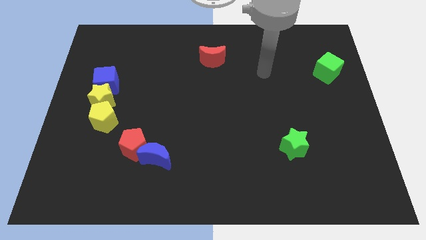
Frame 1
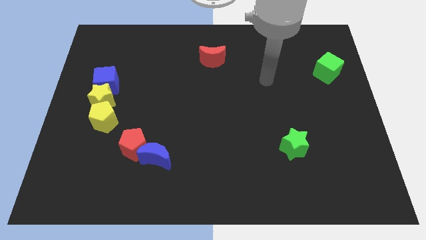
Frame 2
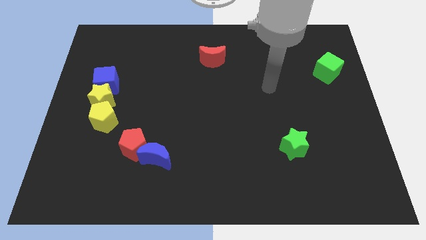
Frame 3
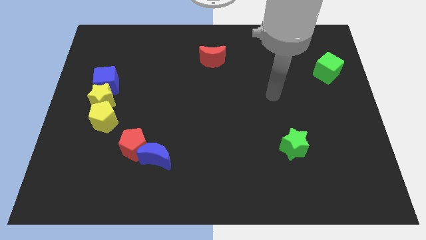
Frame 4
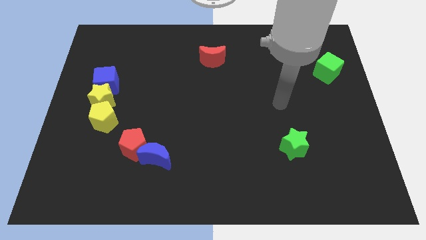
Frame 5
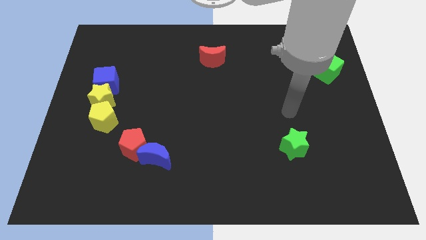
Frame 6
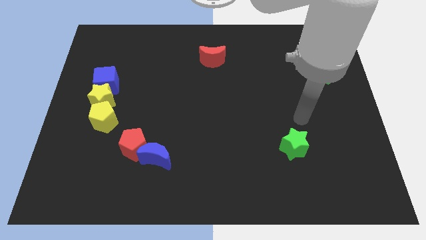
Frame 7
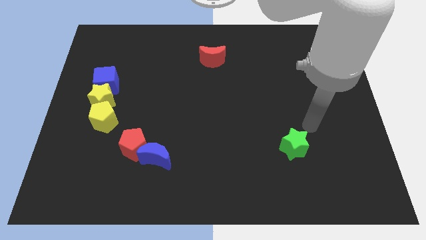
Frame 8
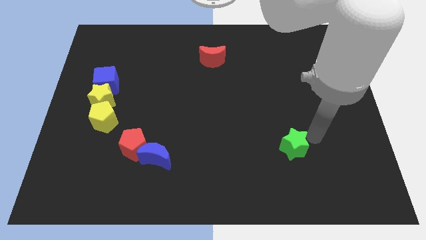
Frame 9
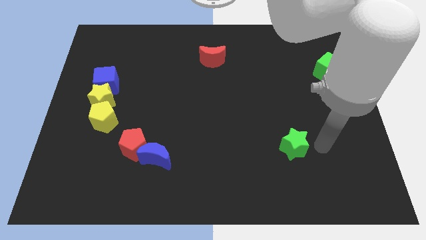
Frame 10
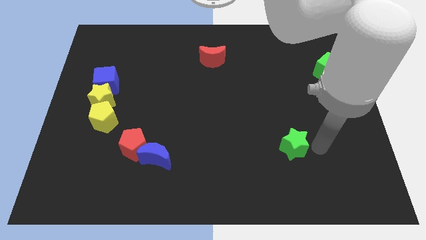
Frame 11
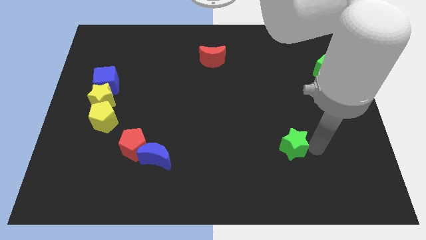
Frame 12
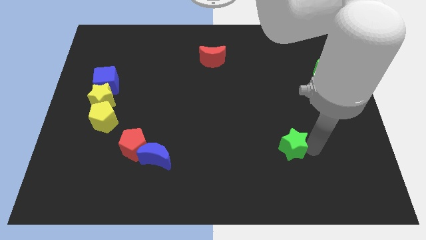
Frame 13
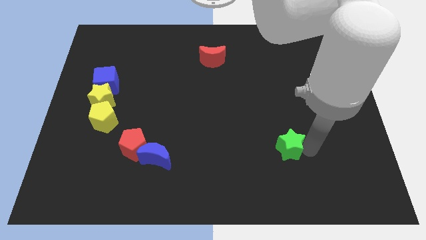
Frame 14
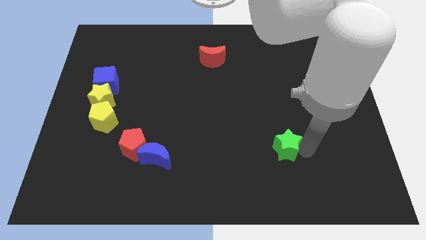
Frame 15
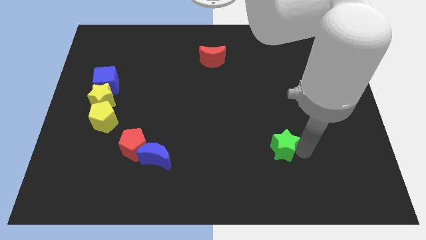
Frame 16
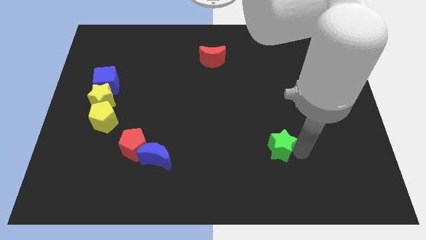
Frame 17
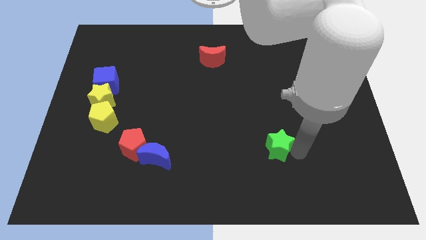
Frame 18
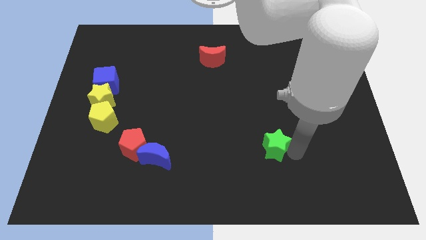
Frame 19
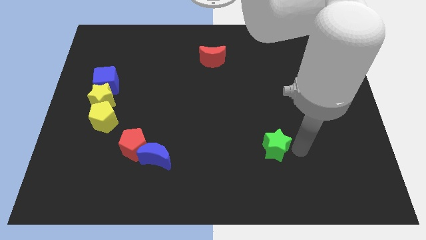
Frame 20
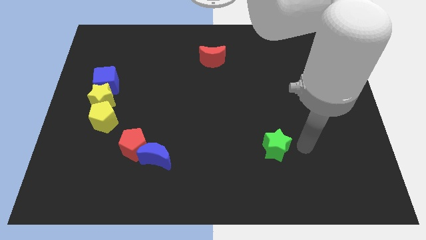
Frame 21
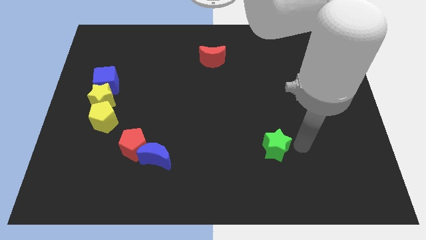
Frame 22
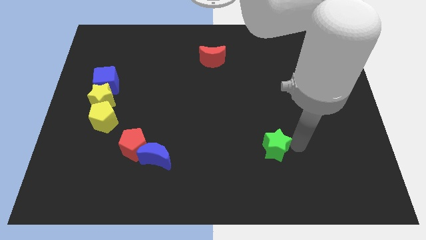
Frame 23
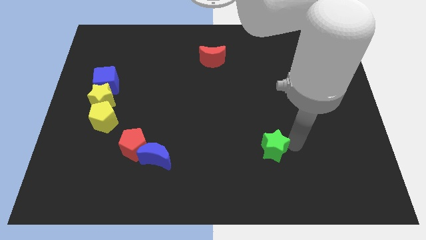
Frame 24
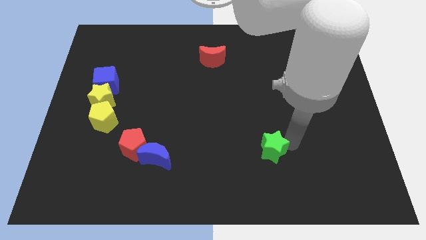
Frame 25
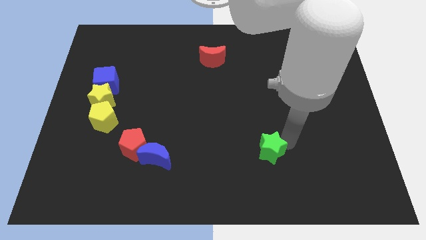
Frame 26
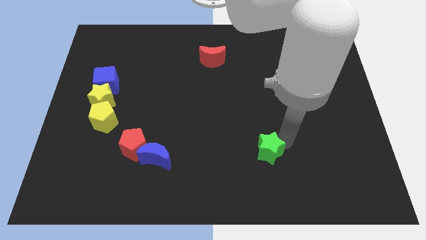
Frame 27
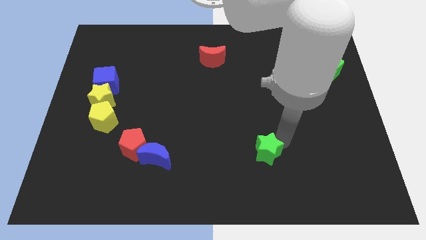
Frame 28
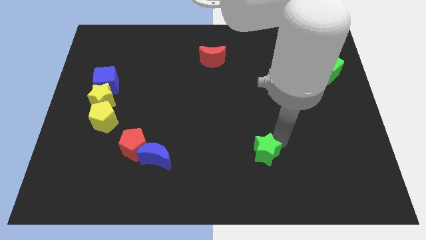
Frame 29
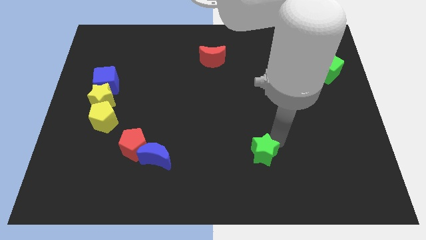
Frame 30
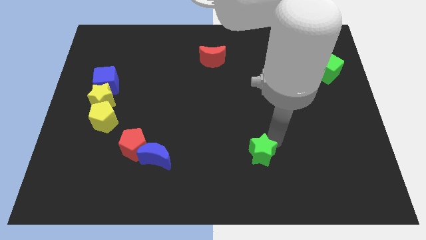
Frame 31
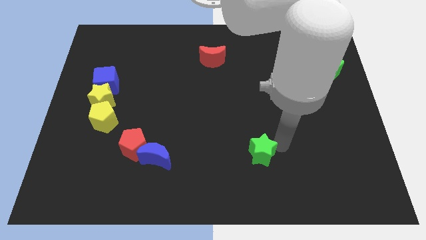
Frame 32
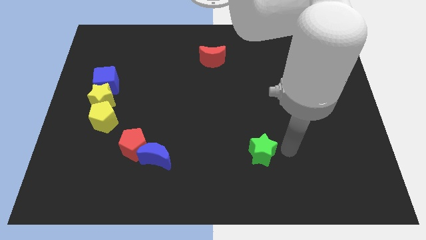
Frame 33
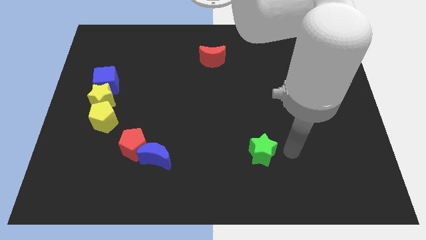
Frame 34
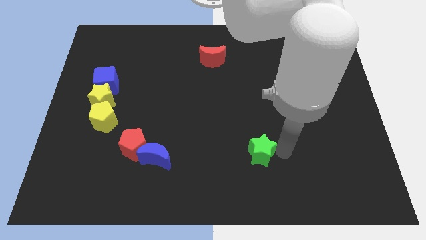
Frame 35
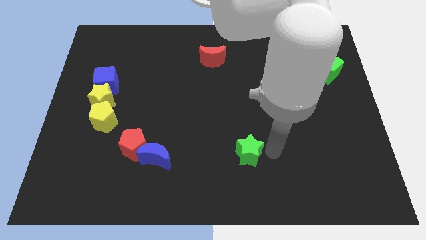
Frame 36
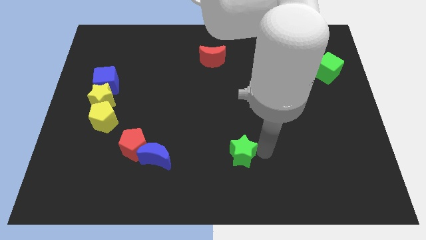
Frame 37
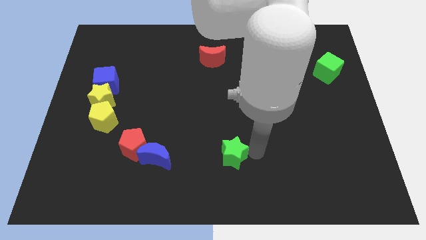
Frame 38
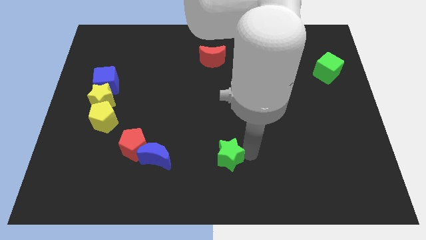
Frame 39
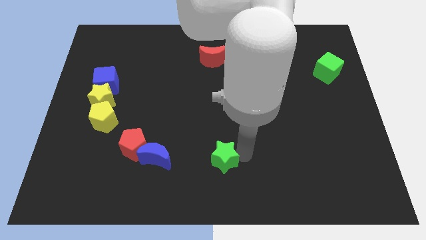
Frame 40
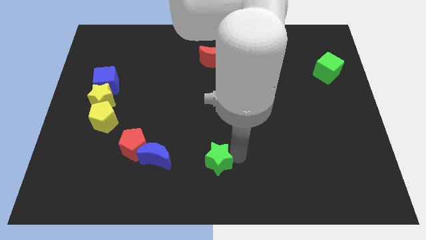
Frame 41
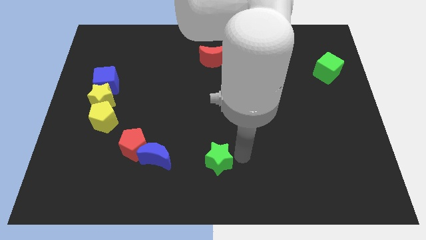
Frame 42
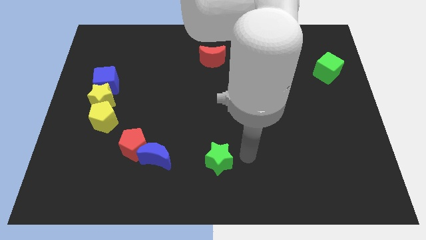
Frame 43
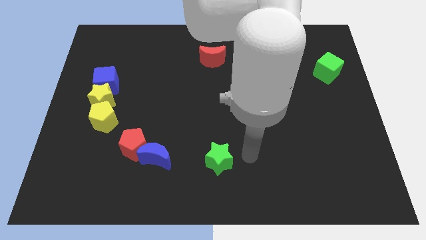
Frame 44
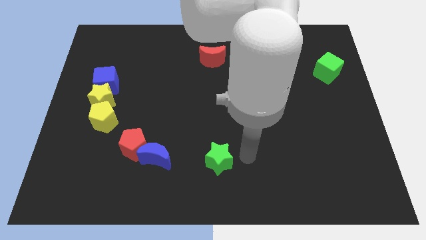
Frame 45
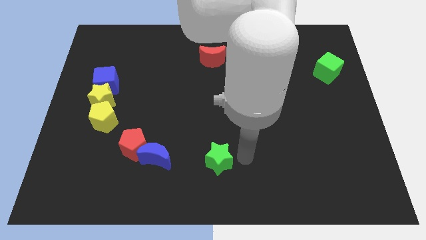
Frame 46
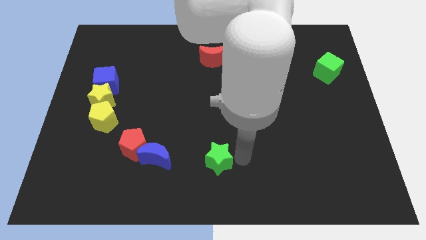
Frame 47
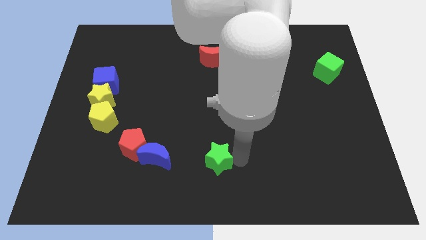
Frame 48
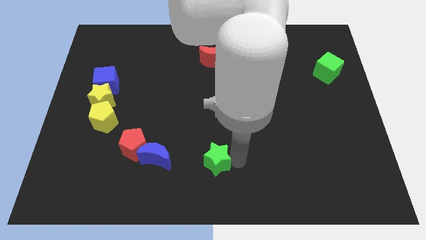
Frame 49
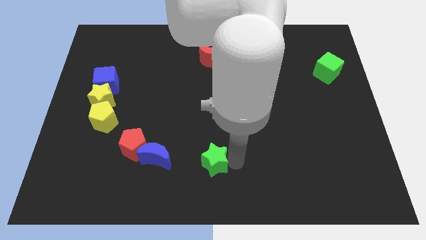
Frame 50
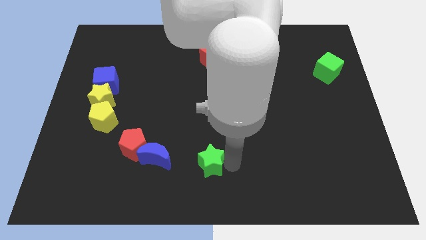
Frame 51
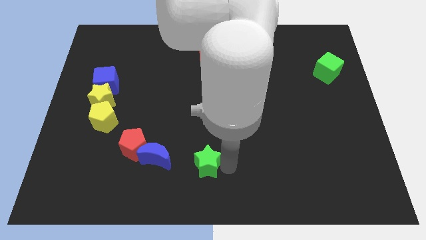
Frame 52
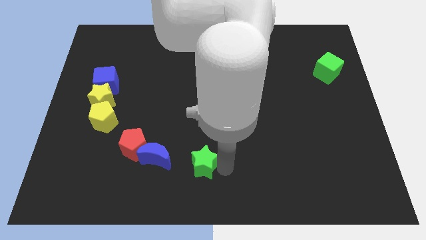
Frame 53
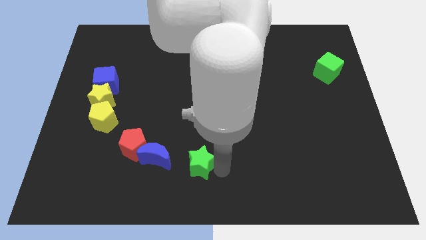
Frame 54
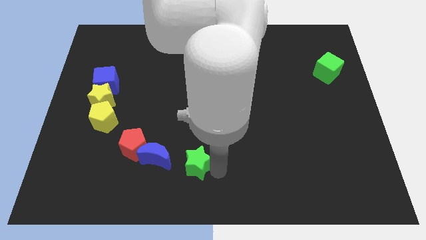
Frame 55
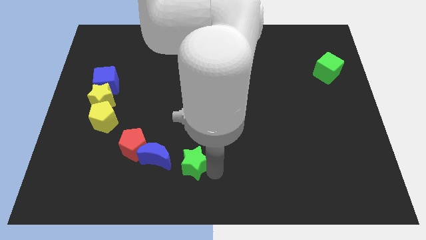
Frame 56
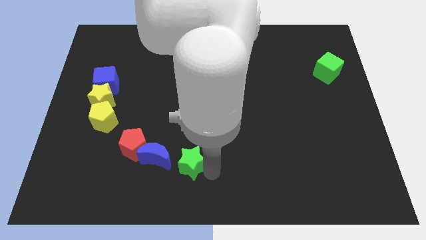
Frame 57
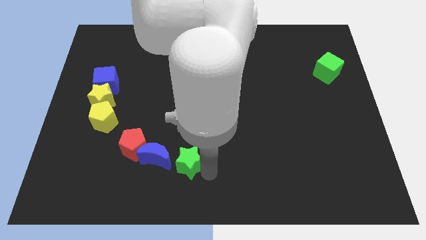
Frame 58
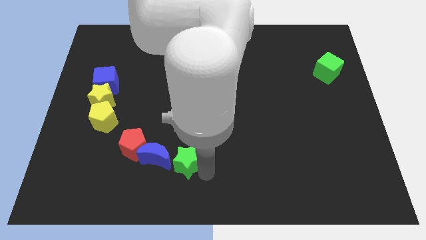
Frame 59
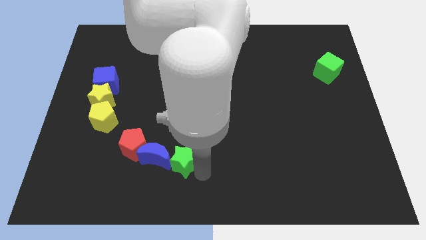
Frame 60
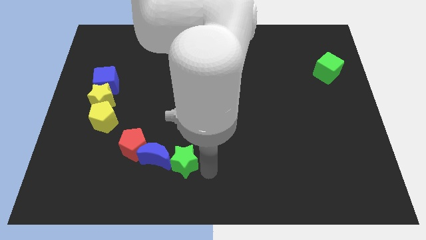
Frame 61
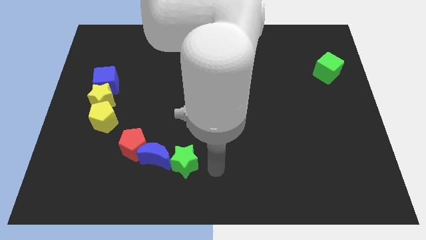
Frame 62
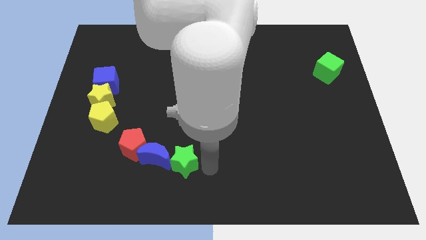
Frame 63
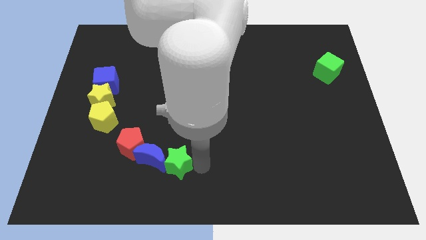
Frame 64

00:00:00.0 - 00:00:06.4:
move the green star towards the blue moon
